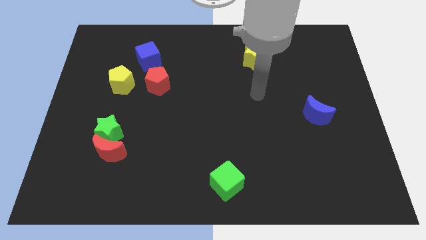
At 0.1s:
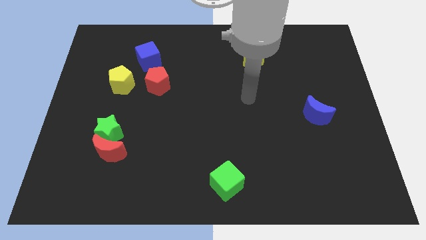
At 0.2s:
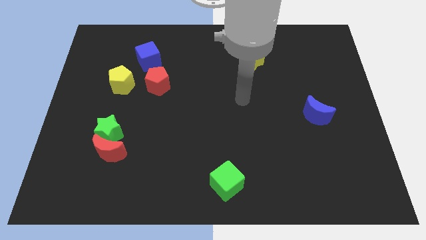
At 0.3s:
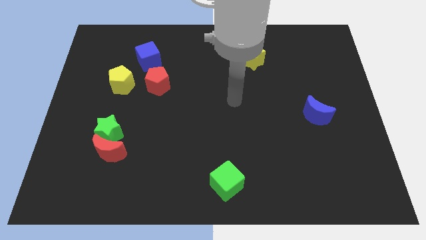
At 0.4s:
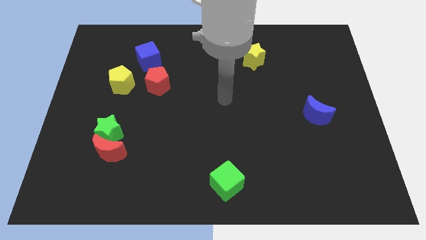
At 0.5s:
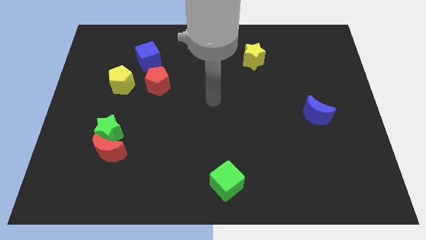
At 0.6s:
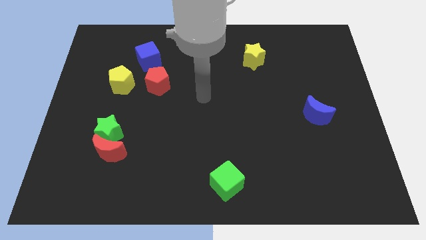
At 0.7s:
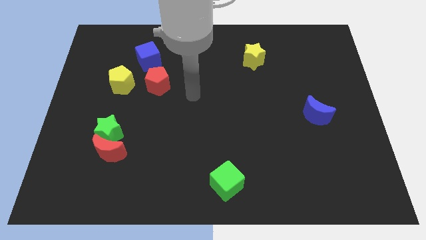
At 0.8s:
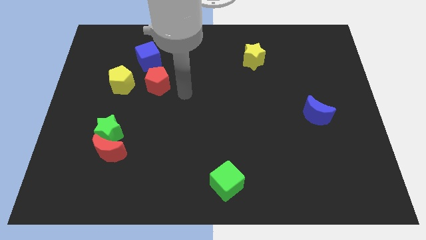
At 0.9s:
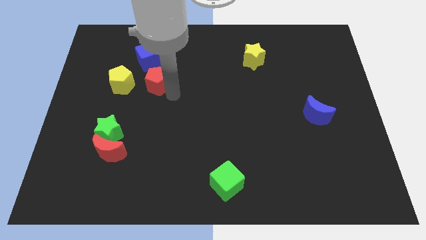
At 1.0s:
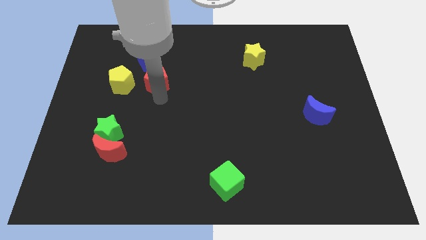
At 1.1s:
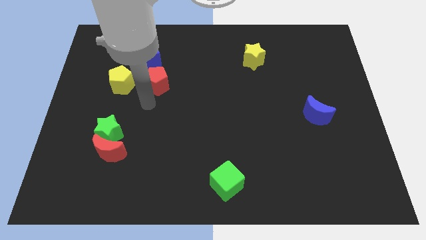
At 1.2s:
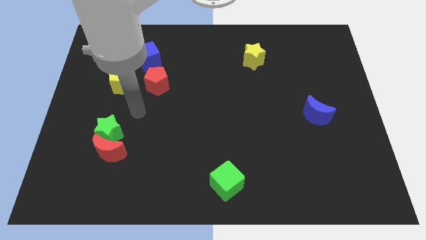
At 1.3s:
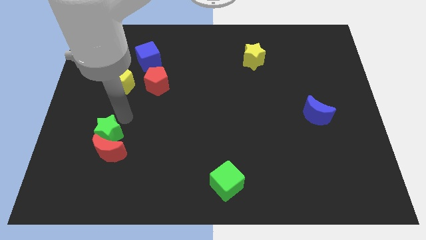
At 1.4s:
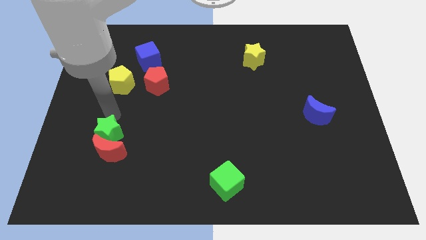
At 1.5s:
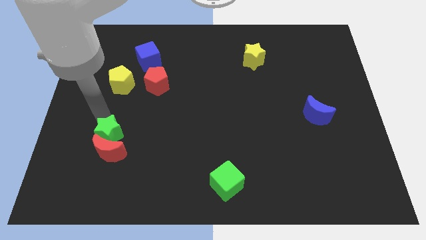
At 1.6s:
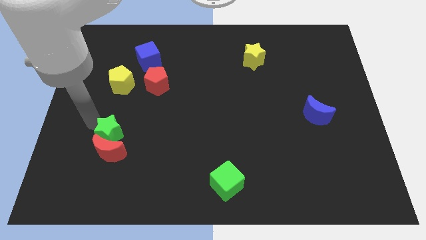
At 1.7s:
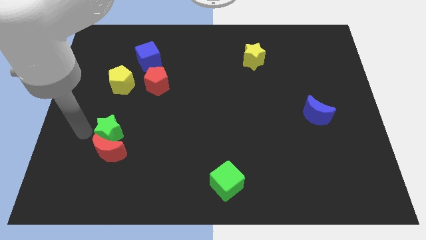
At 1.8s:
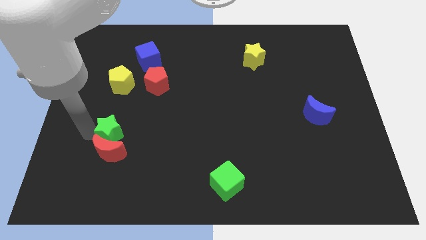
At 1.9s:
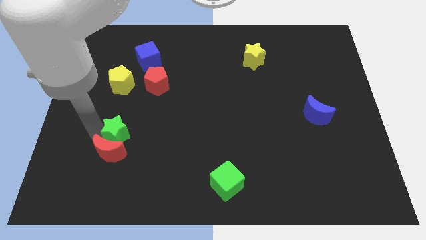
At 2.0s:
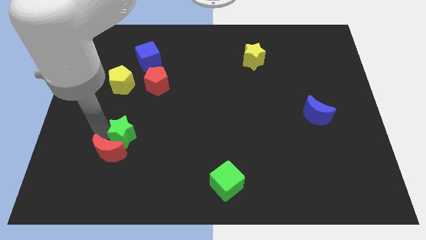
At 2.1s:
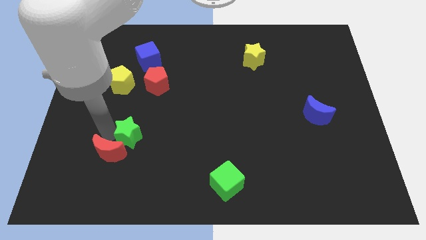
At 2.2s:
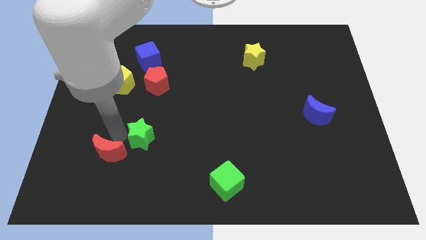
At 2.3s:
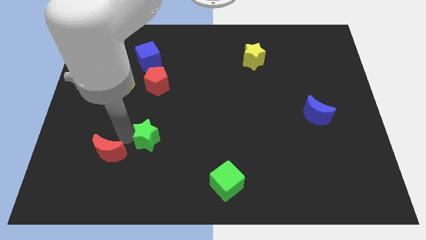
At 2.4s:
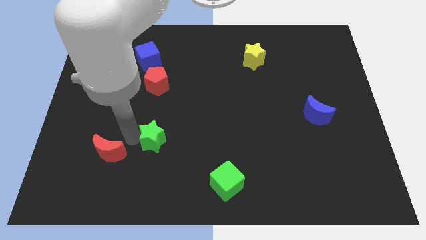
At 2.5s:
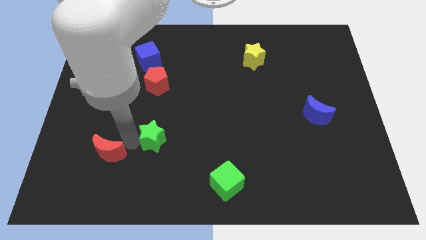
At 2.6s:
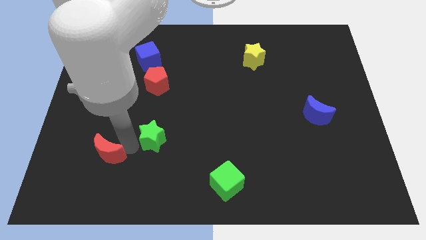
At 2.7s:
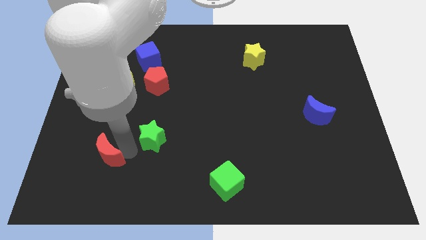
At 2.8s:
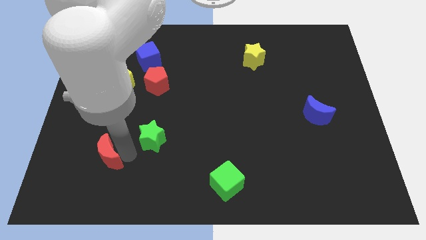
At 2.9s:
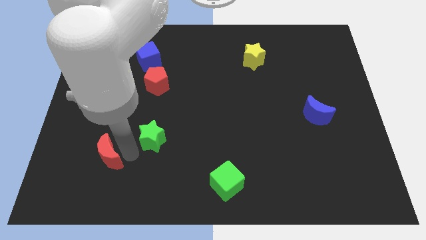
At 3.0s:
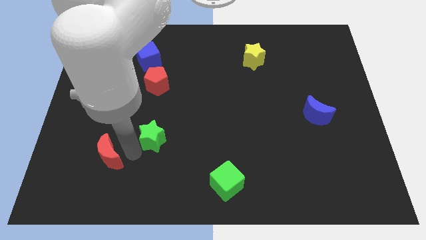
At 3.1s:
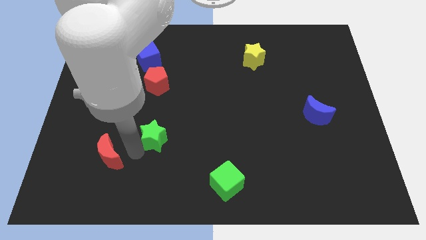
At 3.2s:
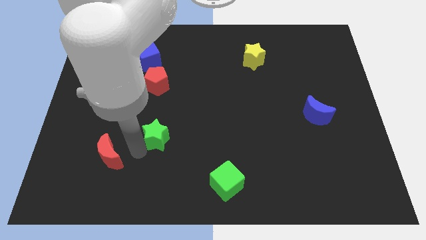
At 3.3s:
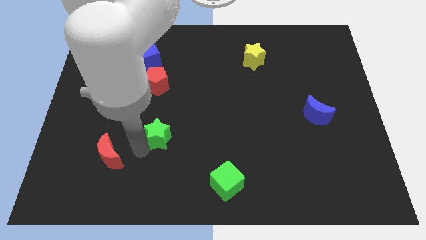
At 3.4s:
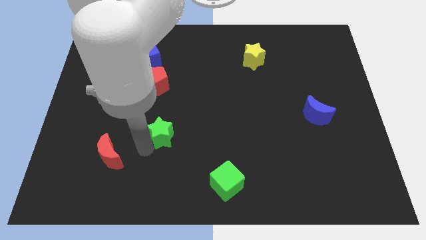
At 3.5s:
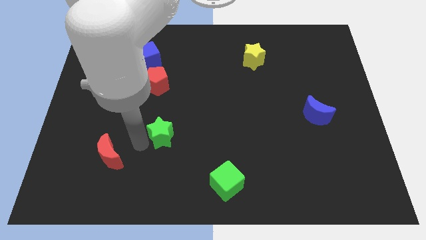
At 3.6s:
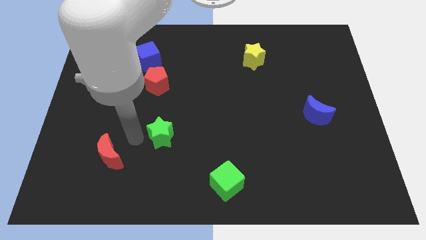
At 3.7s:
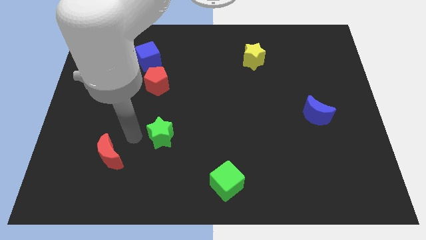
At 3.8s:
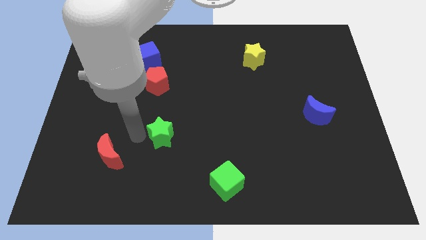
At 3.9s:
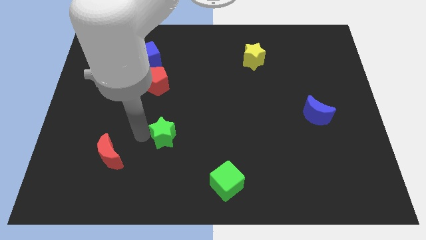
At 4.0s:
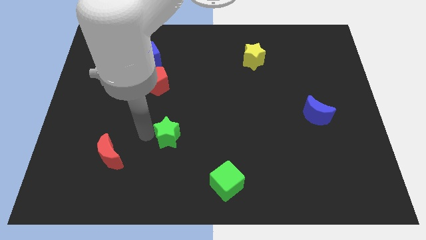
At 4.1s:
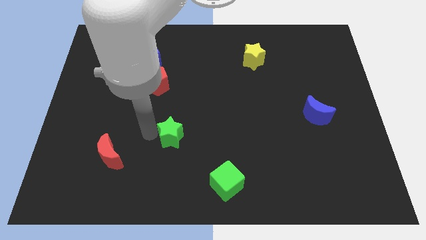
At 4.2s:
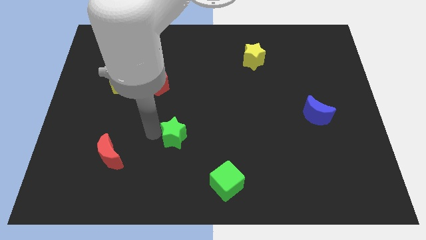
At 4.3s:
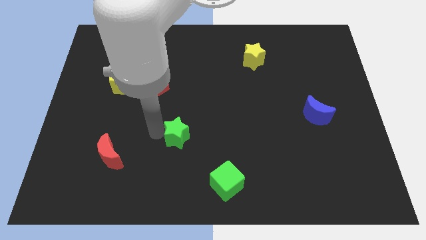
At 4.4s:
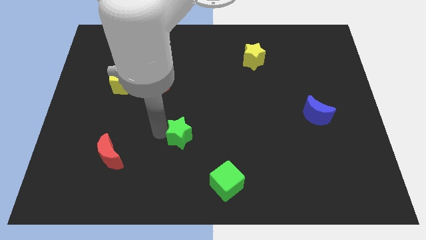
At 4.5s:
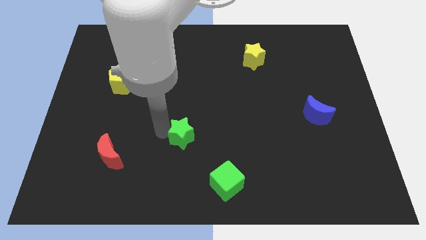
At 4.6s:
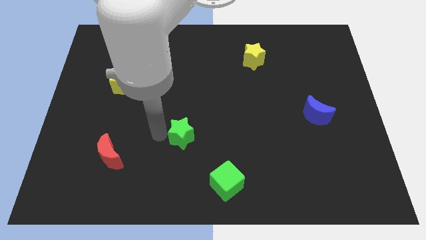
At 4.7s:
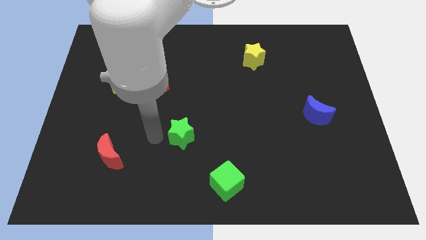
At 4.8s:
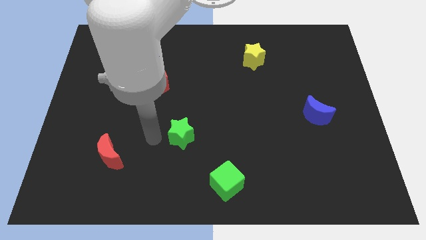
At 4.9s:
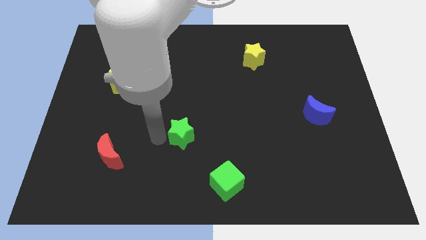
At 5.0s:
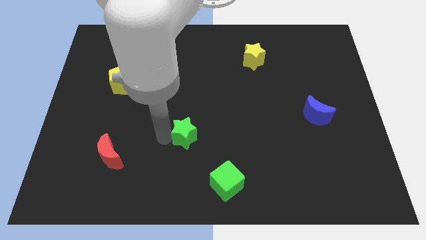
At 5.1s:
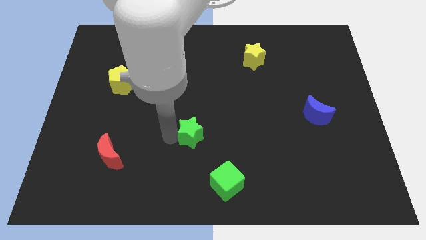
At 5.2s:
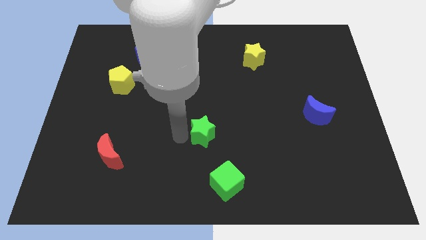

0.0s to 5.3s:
move the green star right

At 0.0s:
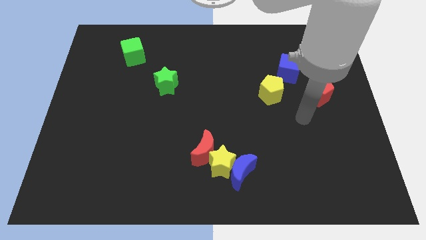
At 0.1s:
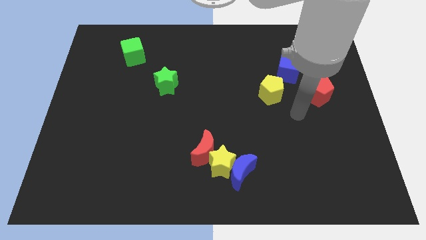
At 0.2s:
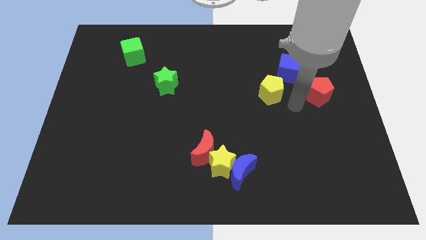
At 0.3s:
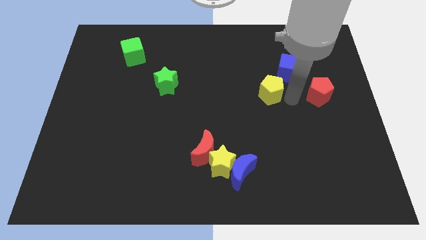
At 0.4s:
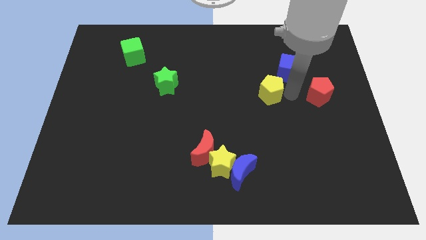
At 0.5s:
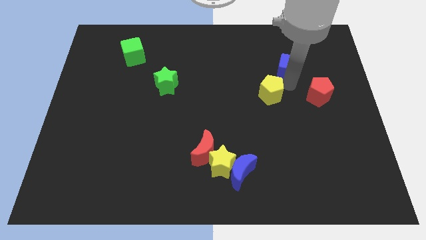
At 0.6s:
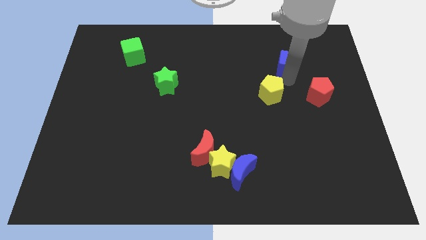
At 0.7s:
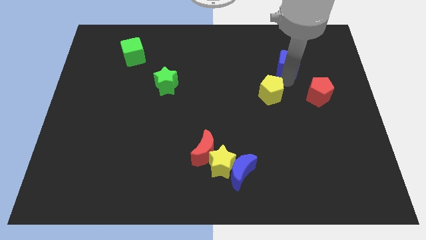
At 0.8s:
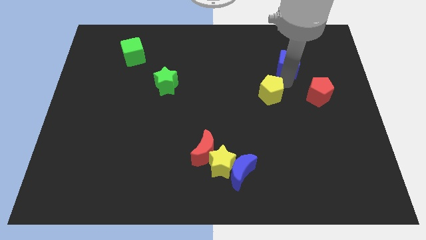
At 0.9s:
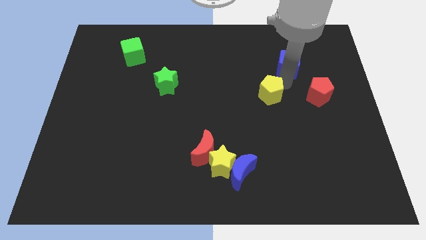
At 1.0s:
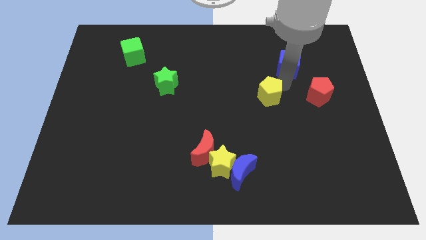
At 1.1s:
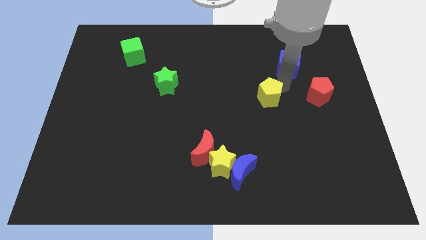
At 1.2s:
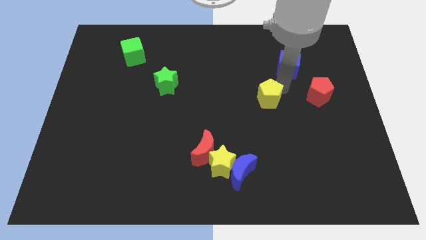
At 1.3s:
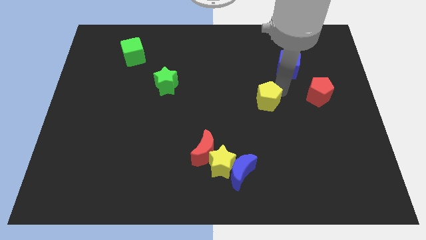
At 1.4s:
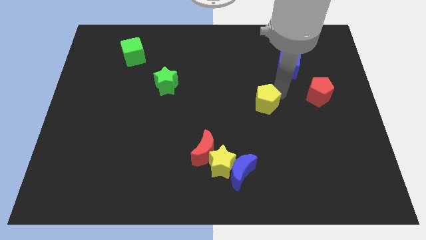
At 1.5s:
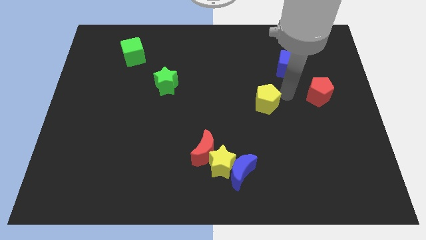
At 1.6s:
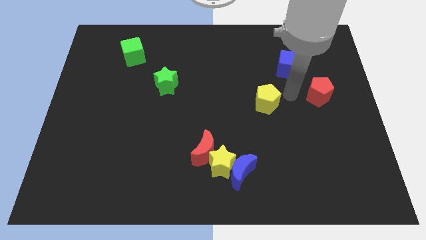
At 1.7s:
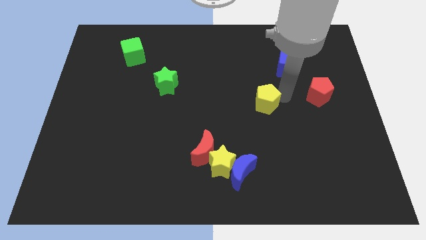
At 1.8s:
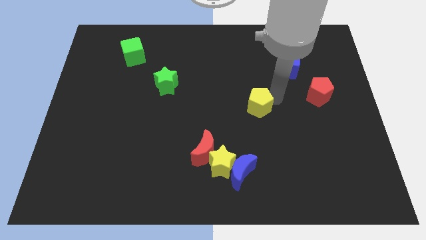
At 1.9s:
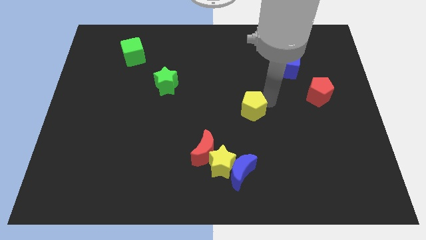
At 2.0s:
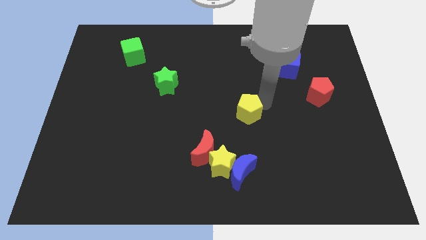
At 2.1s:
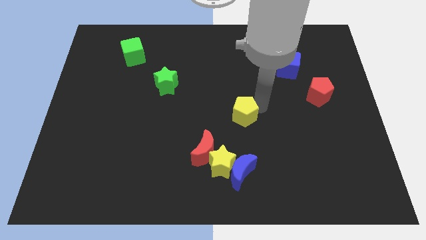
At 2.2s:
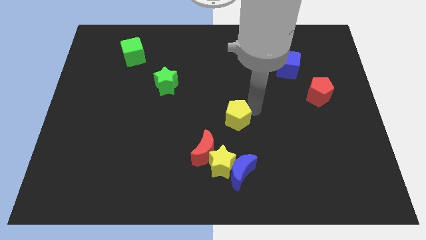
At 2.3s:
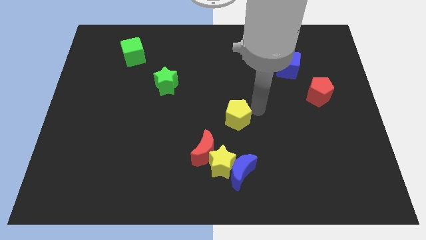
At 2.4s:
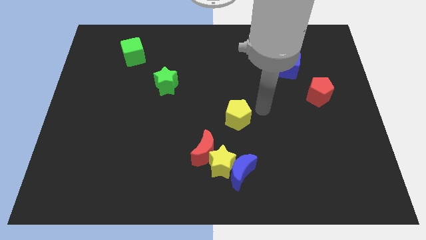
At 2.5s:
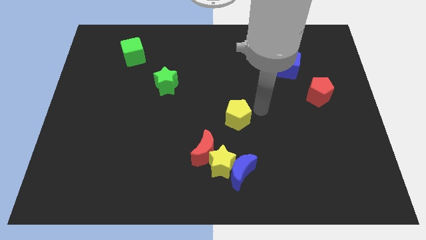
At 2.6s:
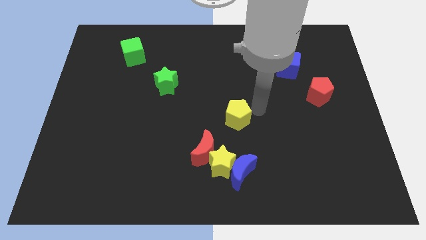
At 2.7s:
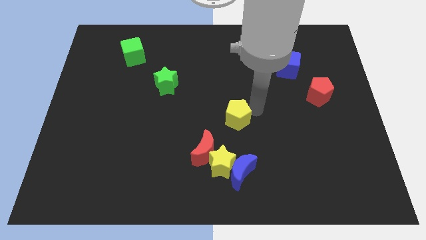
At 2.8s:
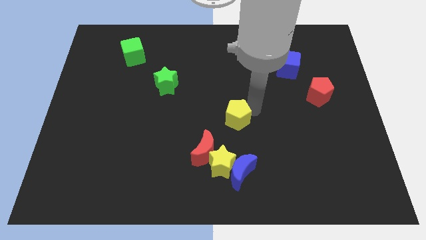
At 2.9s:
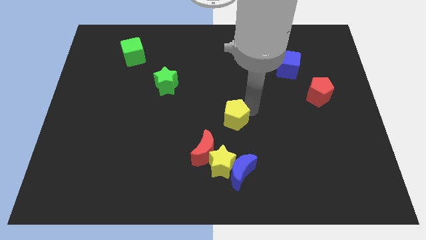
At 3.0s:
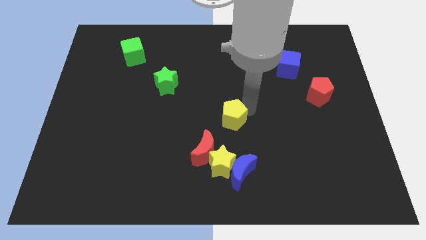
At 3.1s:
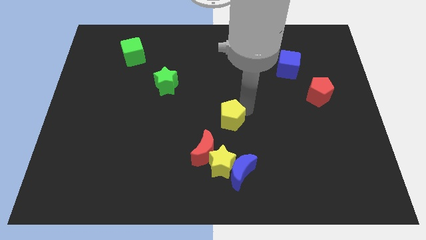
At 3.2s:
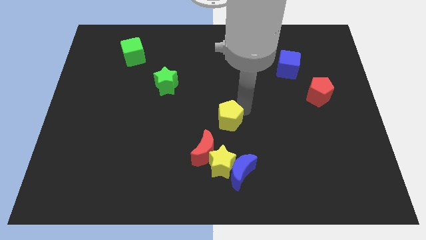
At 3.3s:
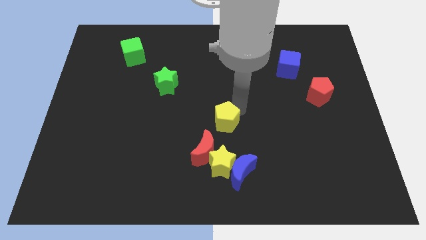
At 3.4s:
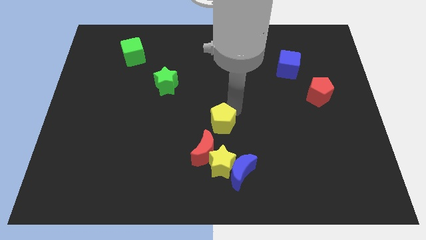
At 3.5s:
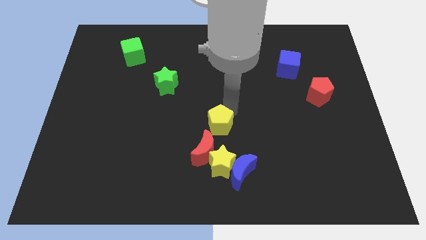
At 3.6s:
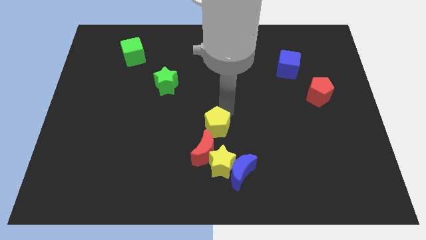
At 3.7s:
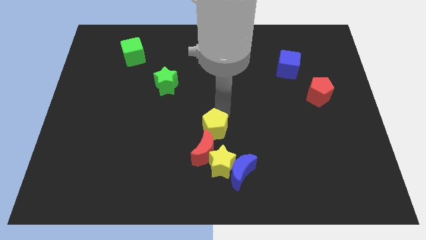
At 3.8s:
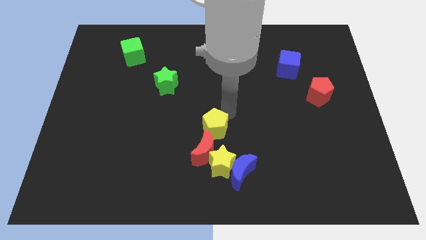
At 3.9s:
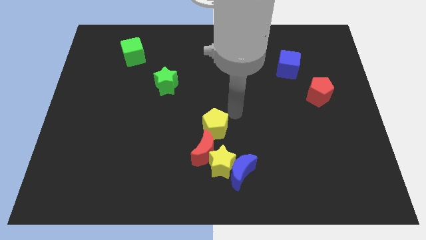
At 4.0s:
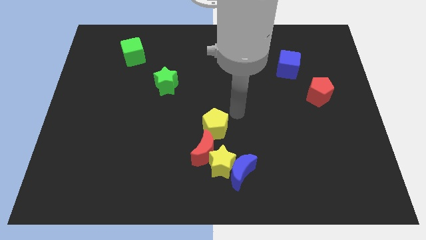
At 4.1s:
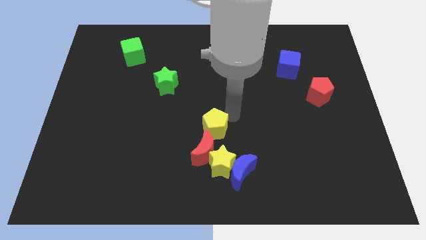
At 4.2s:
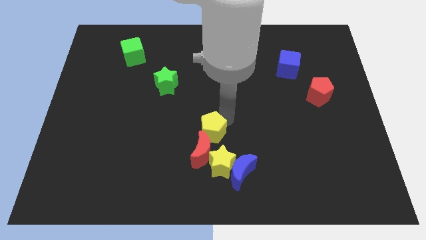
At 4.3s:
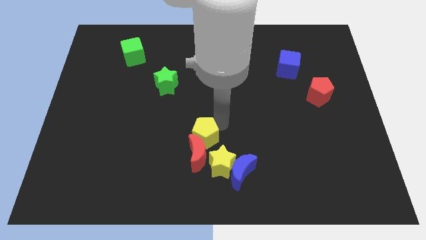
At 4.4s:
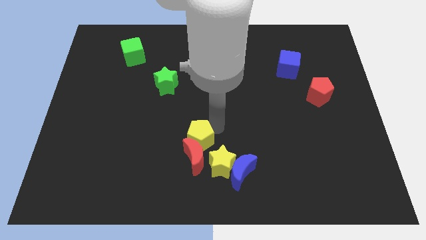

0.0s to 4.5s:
push the yellow pentagon diagonally downwards and left
